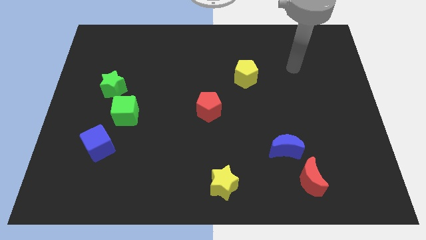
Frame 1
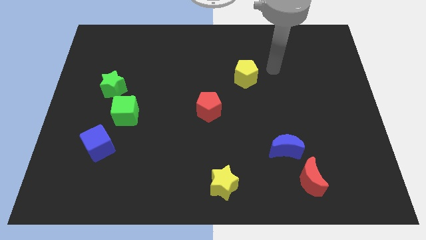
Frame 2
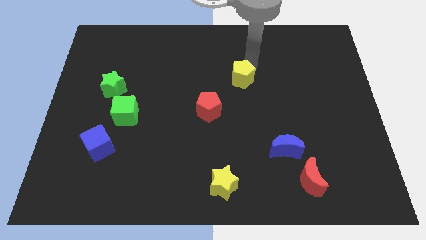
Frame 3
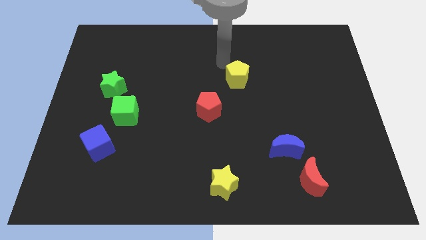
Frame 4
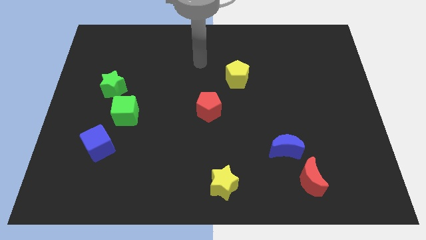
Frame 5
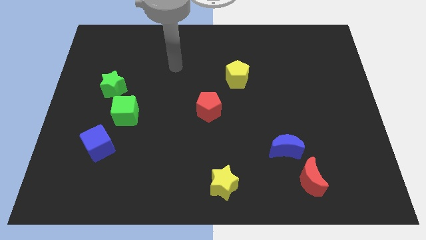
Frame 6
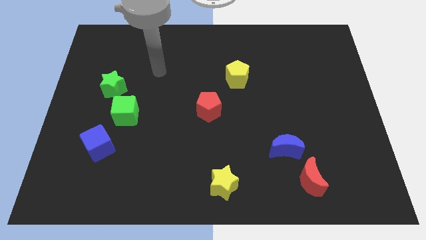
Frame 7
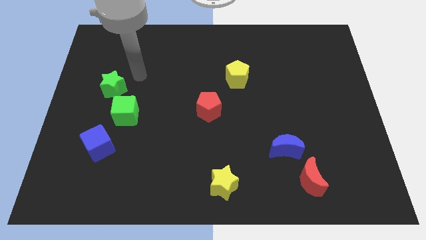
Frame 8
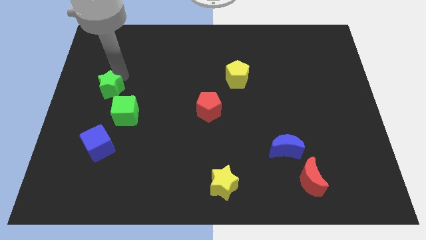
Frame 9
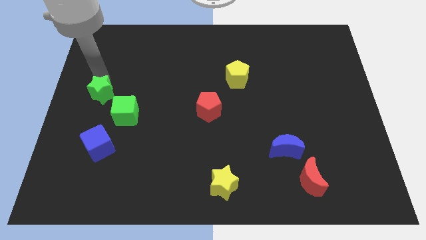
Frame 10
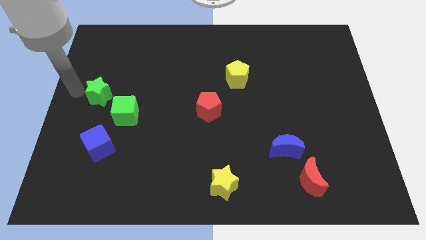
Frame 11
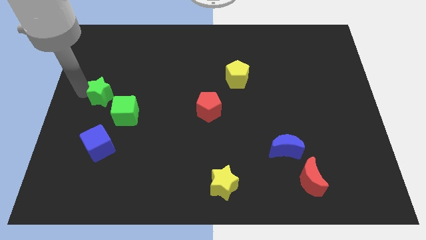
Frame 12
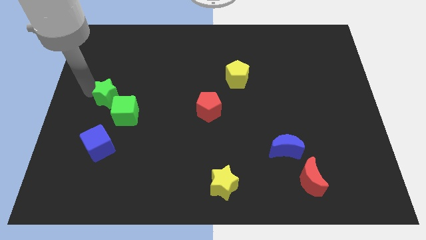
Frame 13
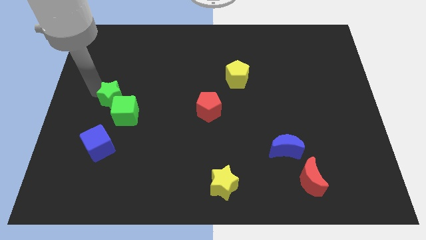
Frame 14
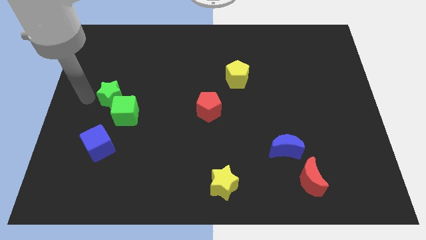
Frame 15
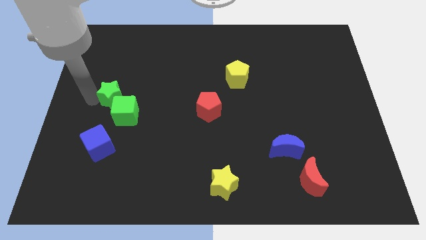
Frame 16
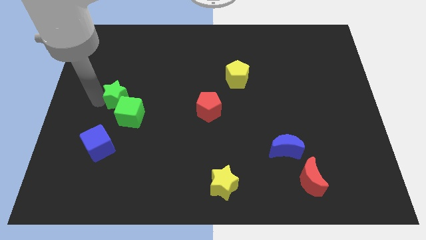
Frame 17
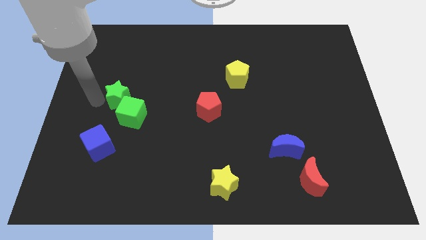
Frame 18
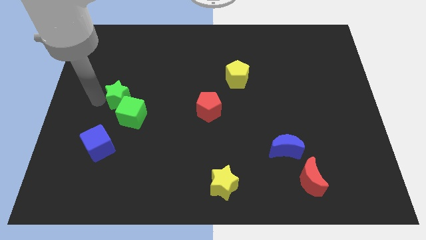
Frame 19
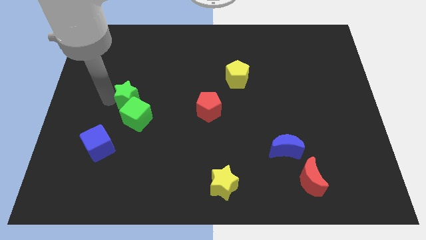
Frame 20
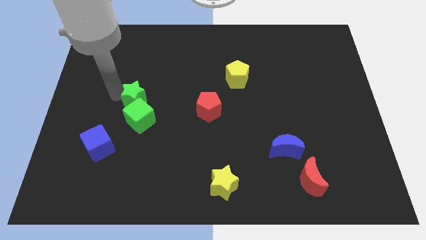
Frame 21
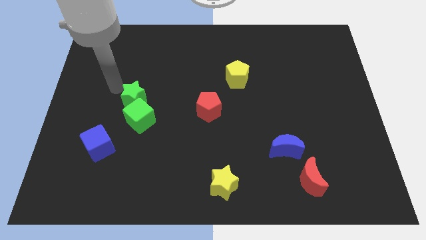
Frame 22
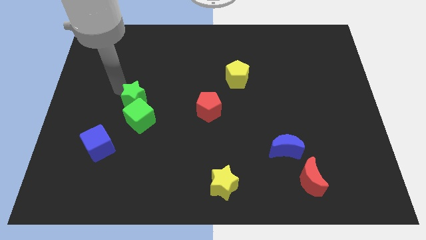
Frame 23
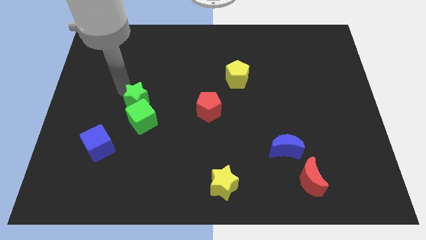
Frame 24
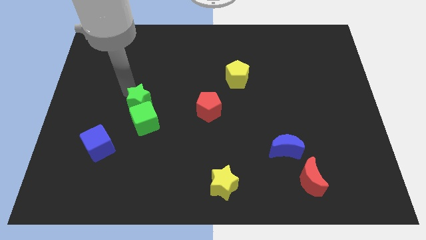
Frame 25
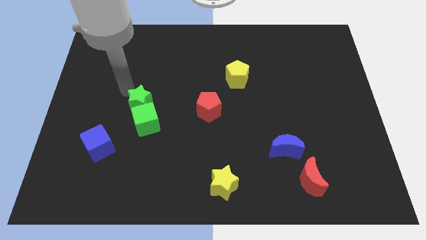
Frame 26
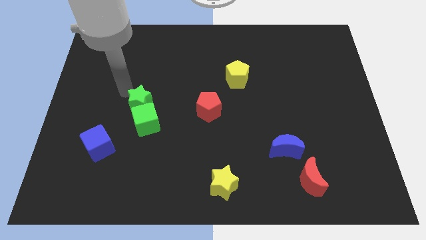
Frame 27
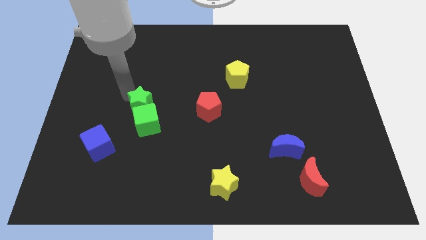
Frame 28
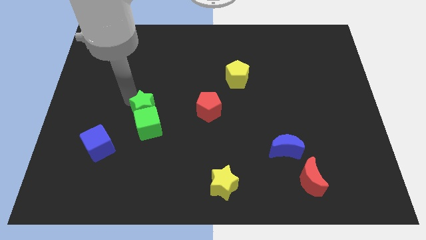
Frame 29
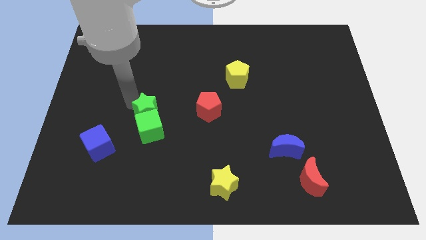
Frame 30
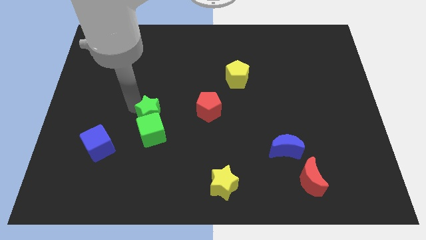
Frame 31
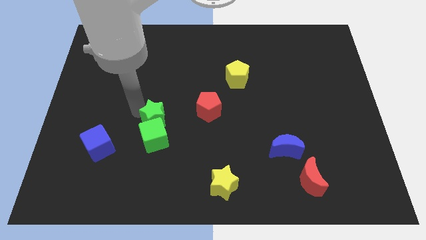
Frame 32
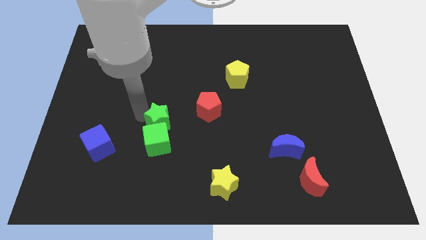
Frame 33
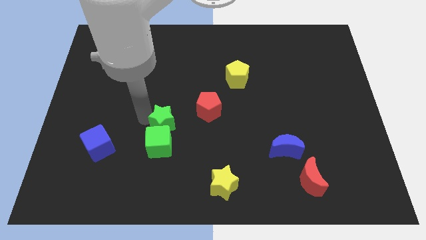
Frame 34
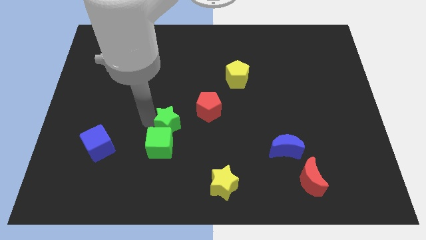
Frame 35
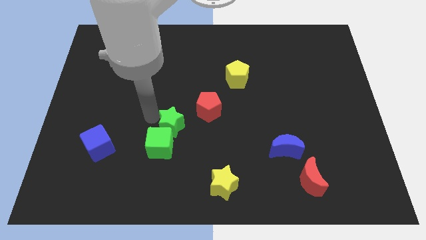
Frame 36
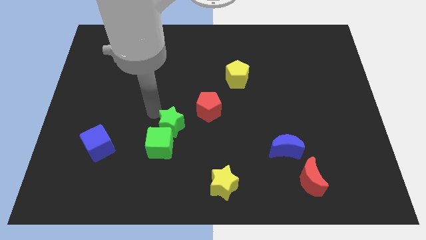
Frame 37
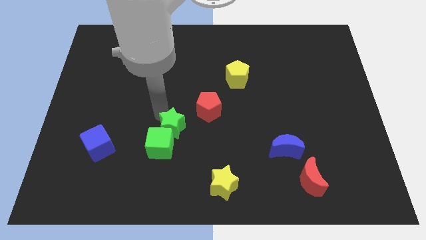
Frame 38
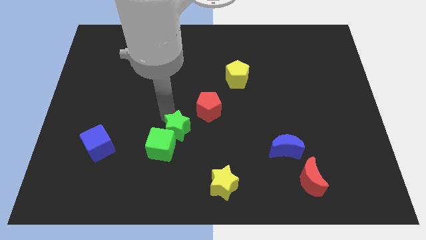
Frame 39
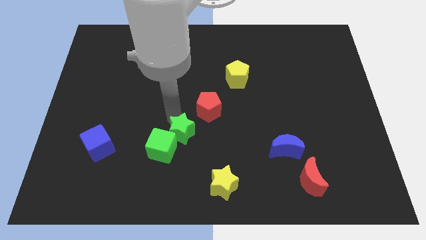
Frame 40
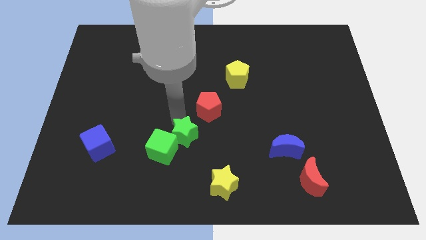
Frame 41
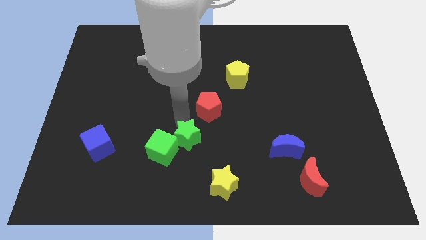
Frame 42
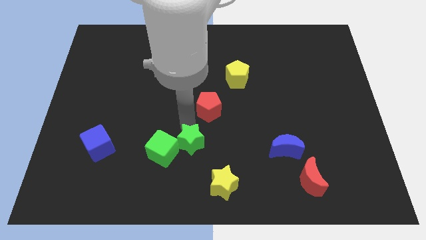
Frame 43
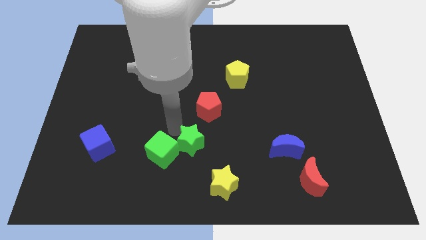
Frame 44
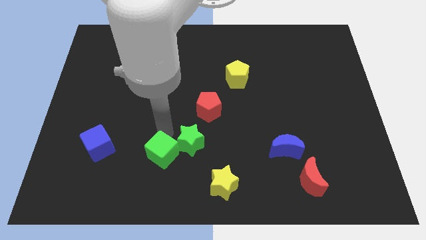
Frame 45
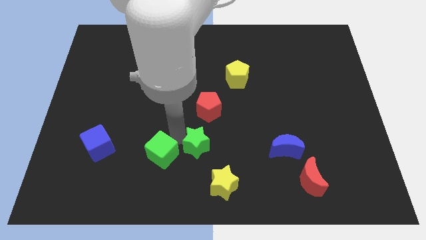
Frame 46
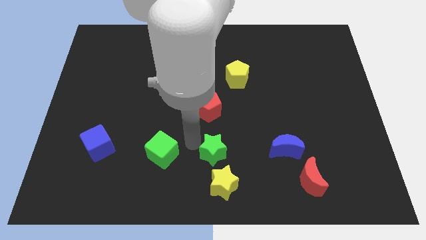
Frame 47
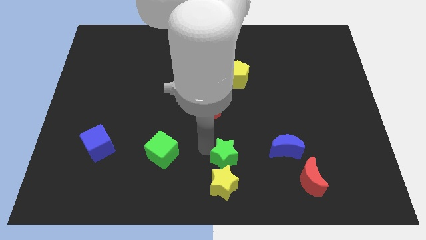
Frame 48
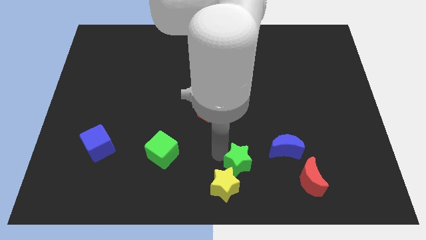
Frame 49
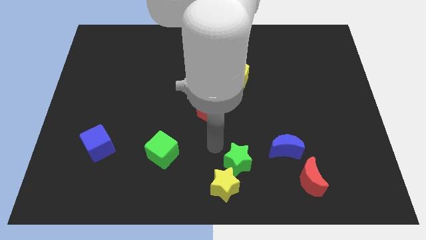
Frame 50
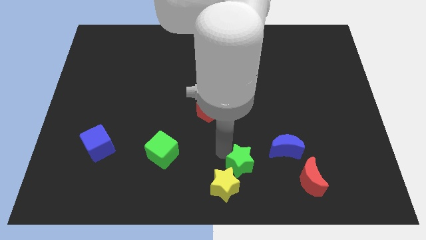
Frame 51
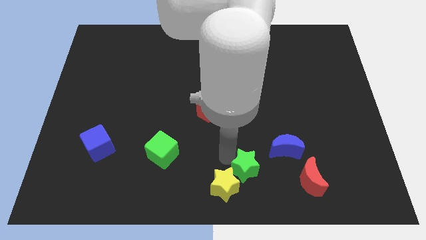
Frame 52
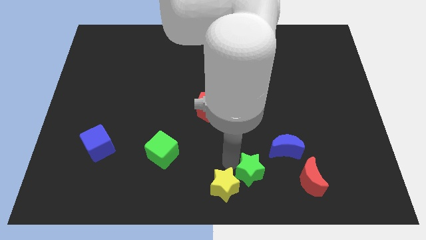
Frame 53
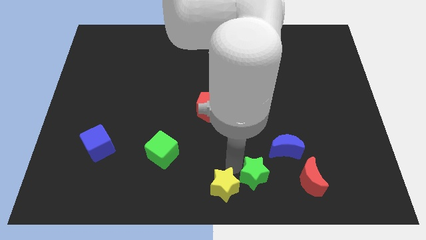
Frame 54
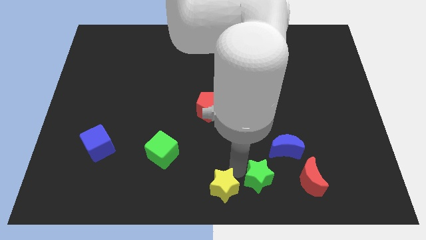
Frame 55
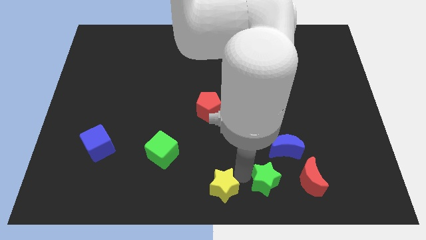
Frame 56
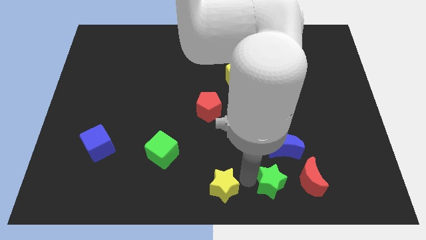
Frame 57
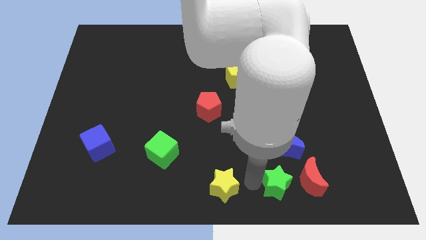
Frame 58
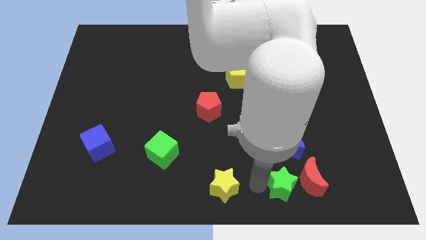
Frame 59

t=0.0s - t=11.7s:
slide the green star next to the red moon

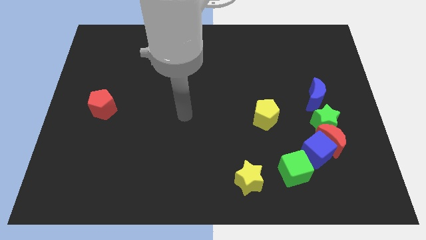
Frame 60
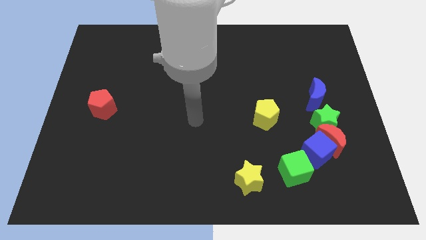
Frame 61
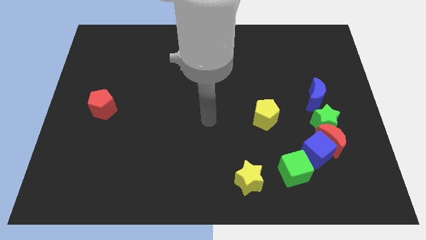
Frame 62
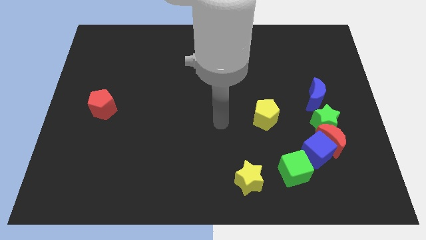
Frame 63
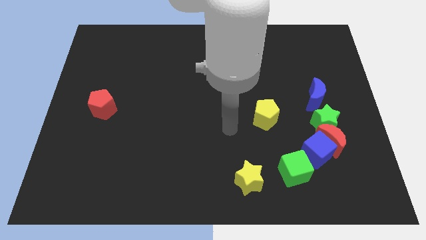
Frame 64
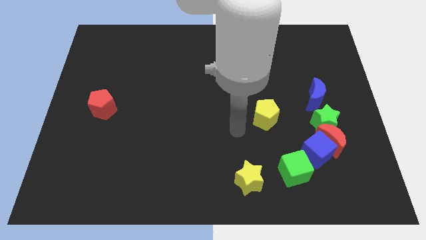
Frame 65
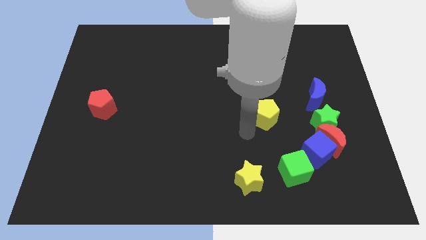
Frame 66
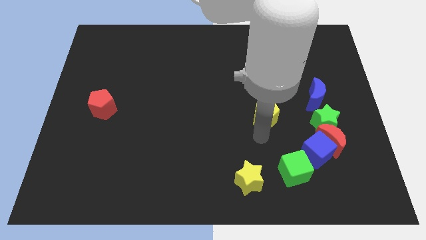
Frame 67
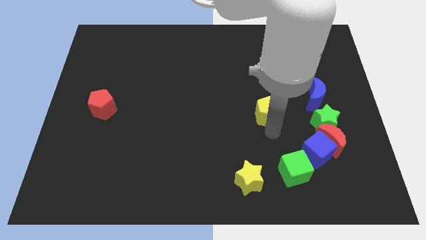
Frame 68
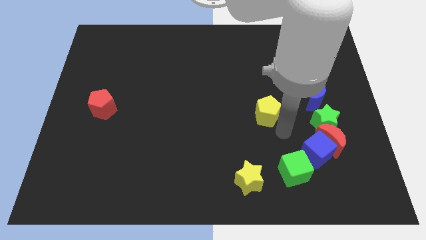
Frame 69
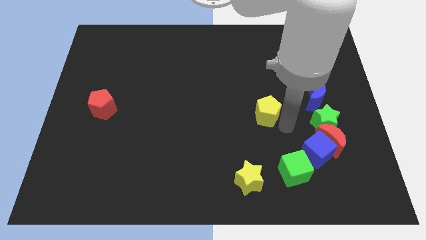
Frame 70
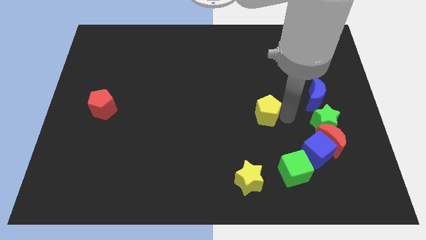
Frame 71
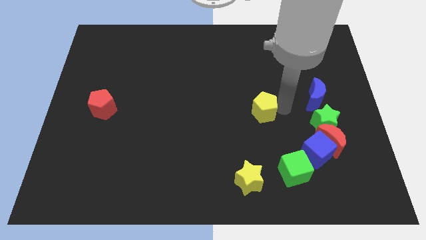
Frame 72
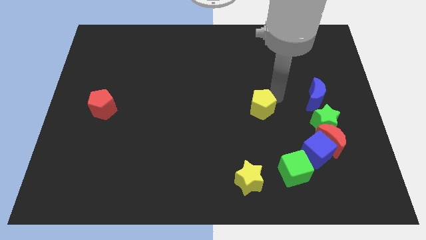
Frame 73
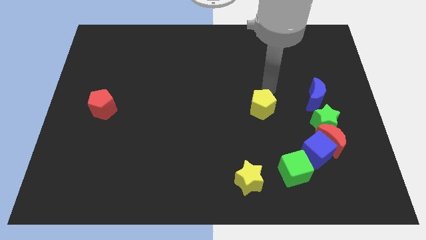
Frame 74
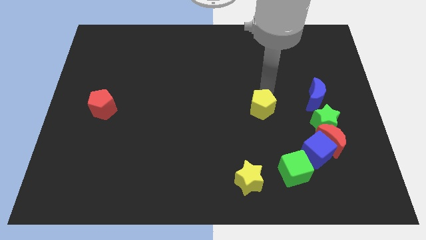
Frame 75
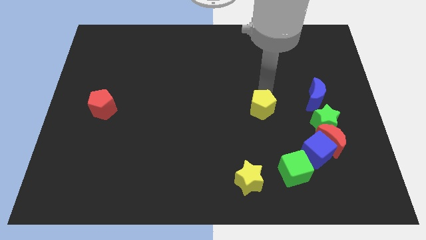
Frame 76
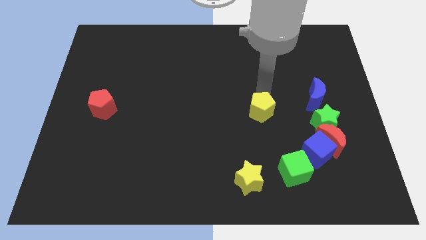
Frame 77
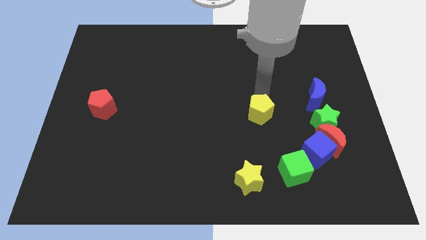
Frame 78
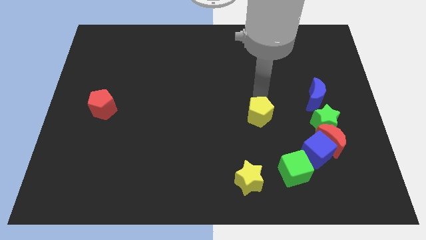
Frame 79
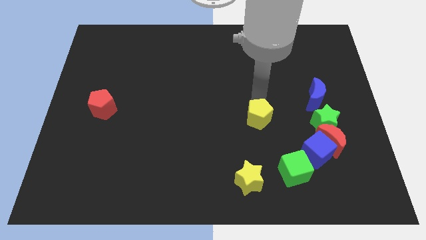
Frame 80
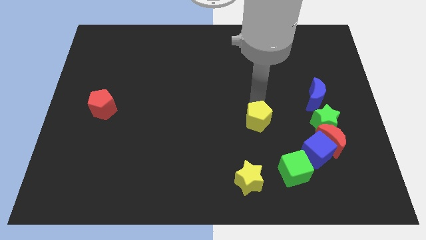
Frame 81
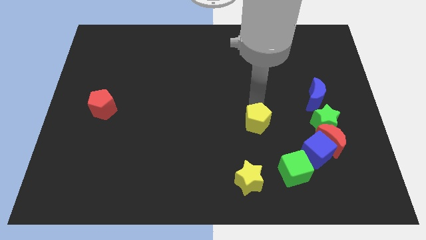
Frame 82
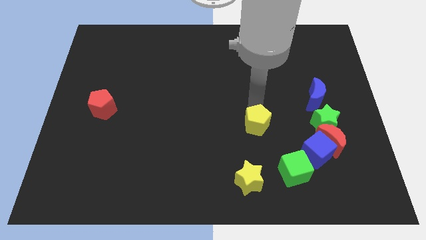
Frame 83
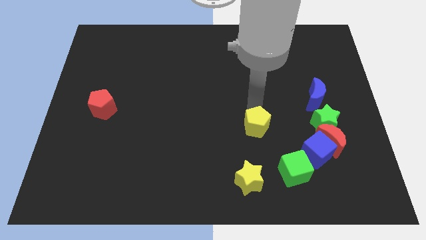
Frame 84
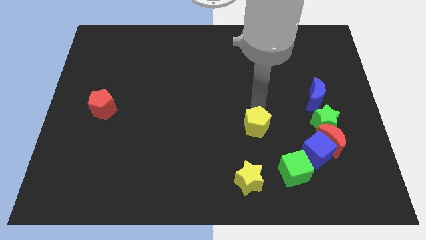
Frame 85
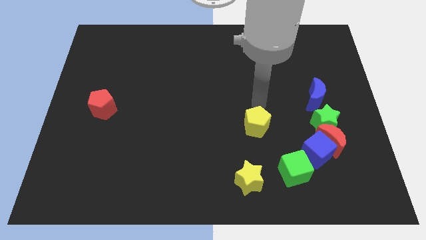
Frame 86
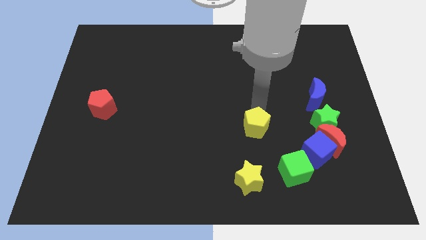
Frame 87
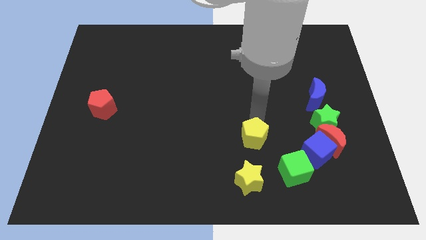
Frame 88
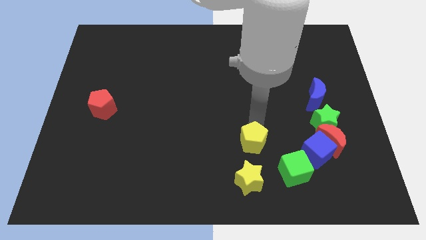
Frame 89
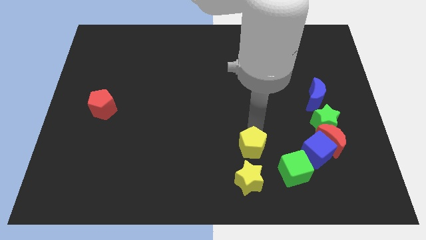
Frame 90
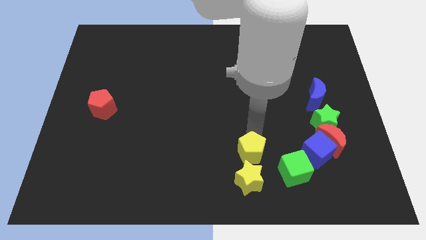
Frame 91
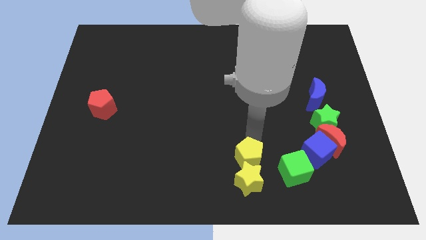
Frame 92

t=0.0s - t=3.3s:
put the yellow pentagon next to the yellow star
